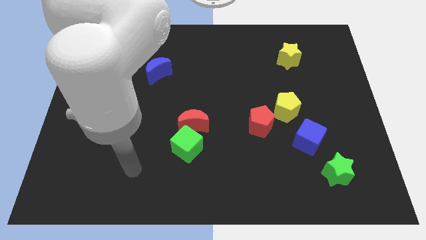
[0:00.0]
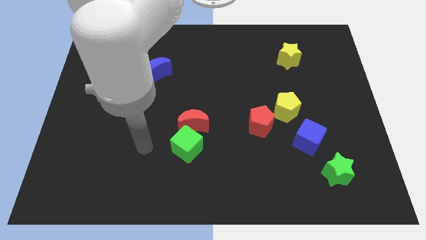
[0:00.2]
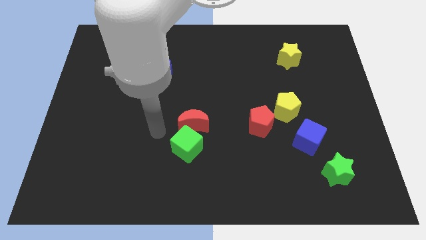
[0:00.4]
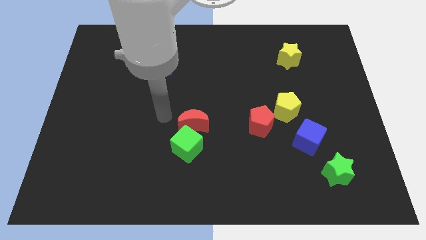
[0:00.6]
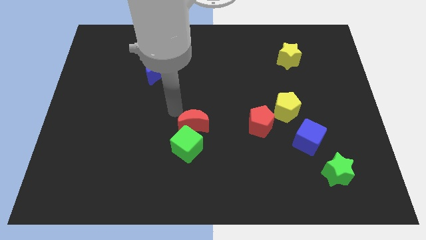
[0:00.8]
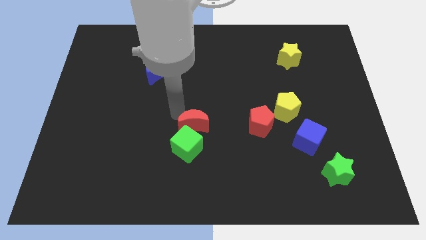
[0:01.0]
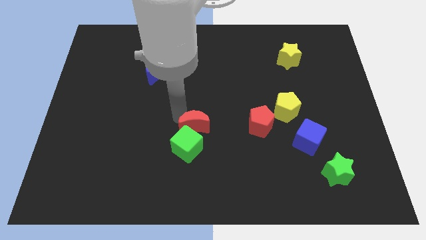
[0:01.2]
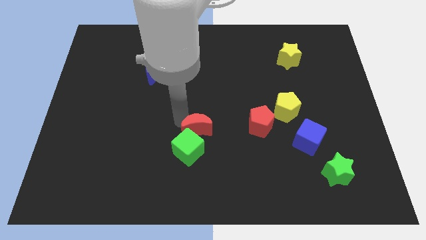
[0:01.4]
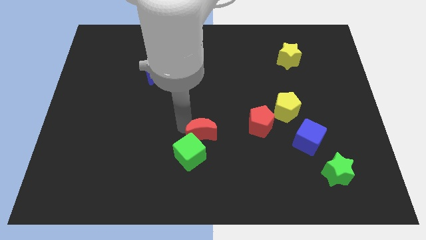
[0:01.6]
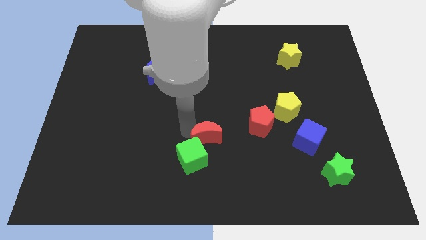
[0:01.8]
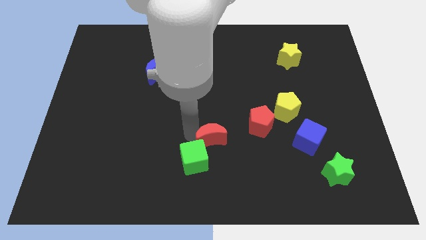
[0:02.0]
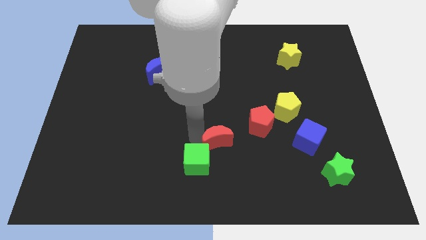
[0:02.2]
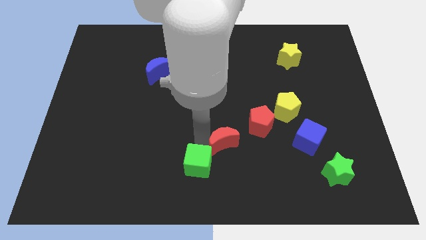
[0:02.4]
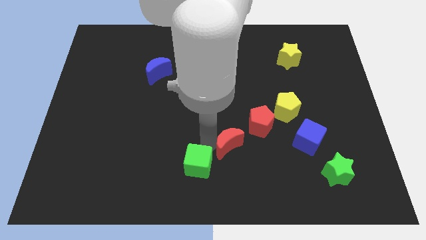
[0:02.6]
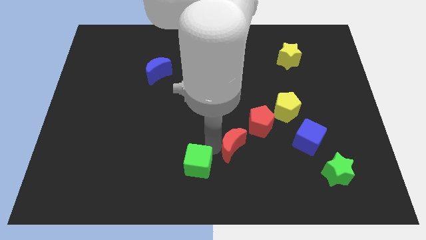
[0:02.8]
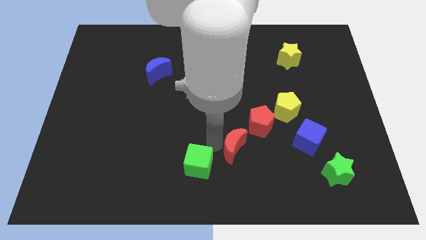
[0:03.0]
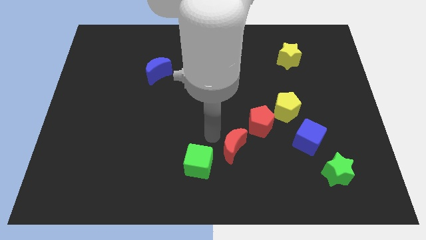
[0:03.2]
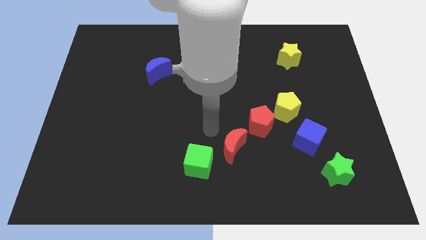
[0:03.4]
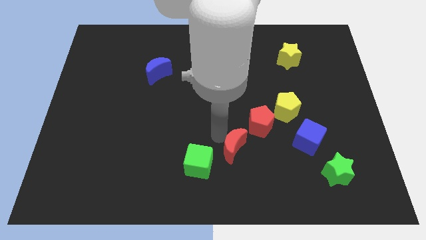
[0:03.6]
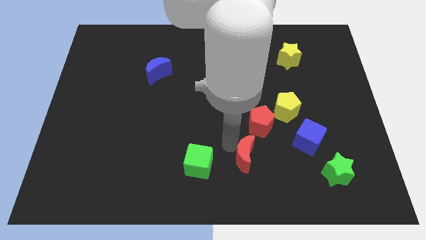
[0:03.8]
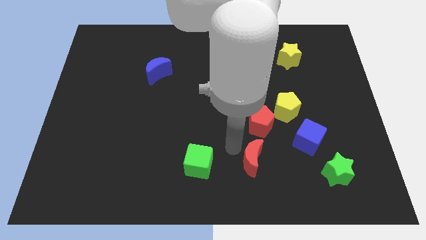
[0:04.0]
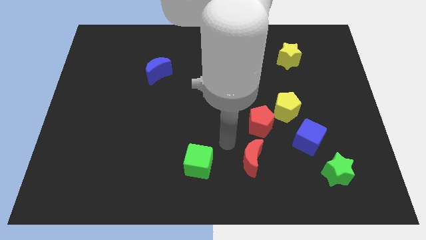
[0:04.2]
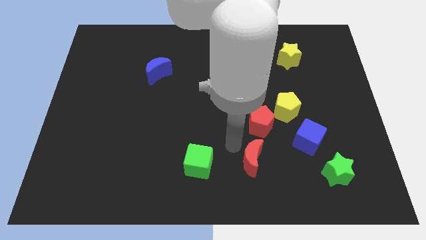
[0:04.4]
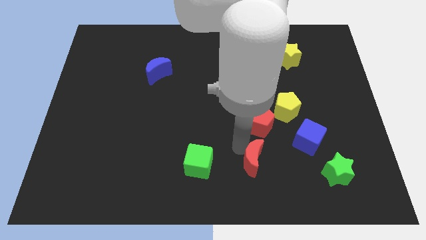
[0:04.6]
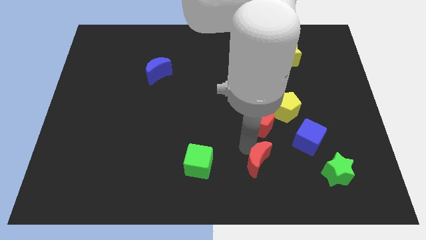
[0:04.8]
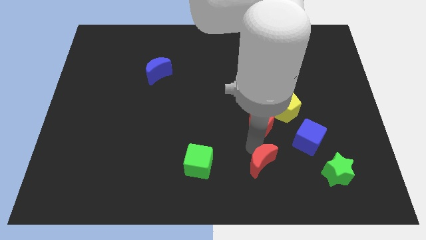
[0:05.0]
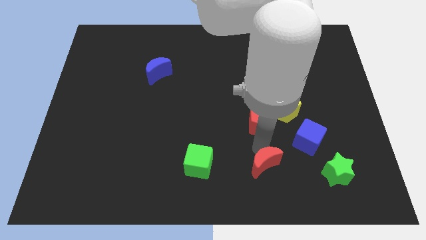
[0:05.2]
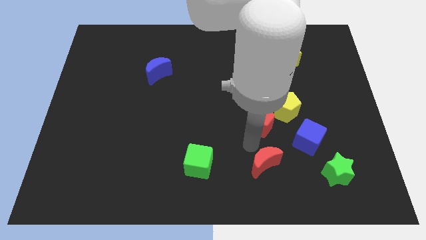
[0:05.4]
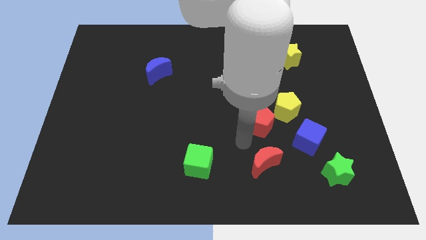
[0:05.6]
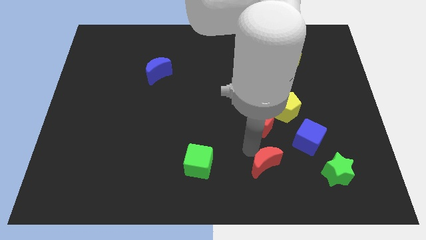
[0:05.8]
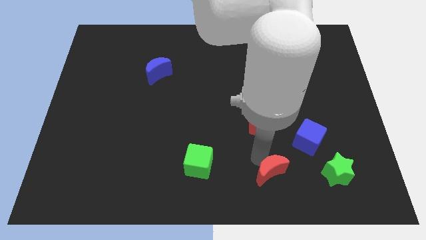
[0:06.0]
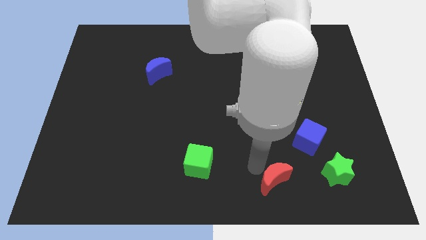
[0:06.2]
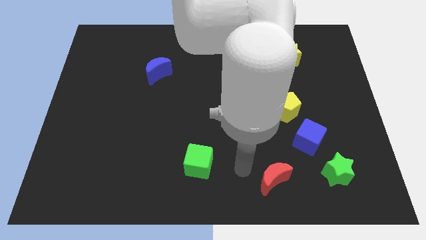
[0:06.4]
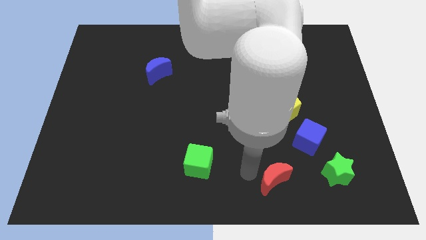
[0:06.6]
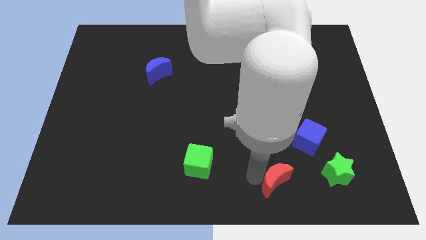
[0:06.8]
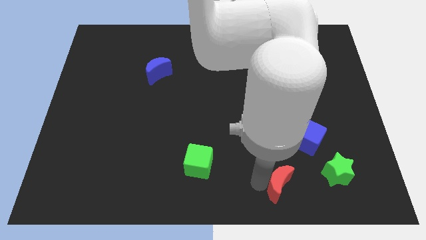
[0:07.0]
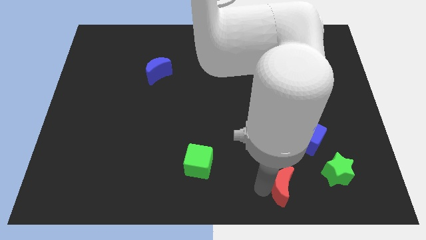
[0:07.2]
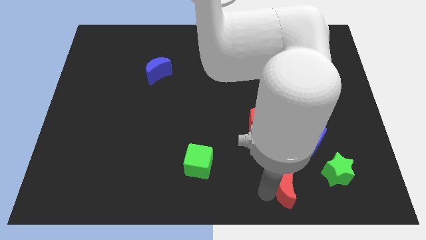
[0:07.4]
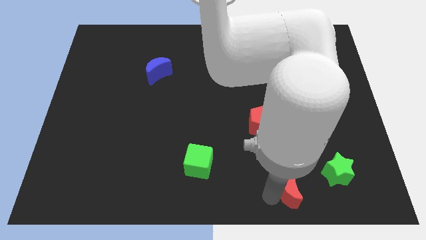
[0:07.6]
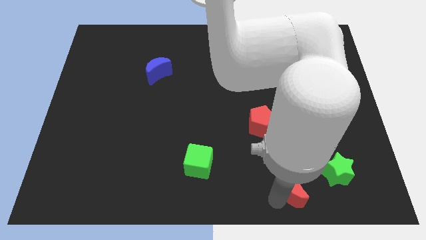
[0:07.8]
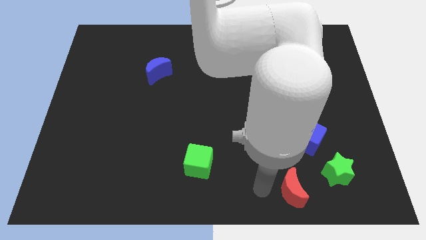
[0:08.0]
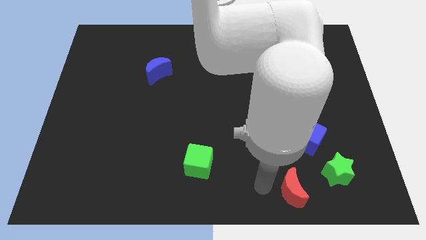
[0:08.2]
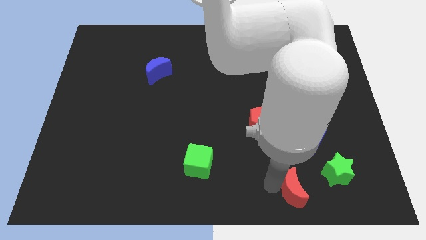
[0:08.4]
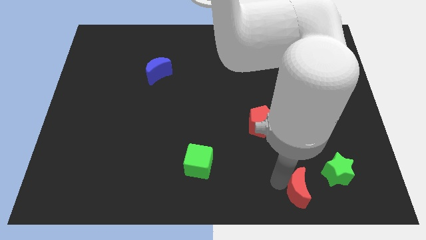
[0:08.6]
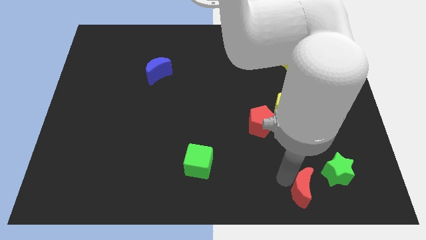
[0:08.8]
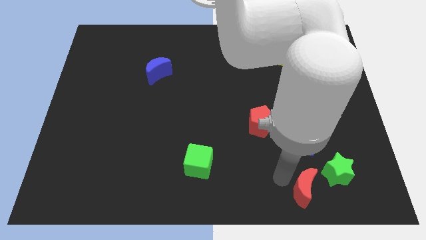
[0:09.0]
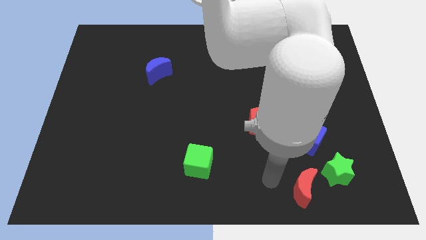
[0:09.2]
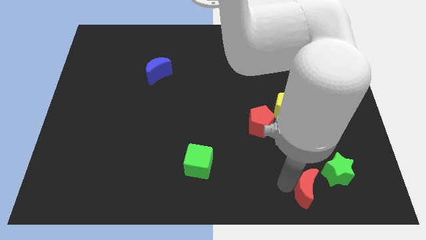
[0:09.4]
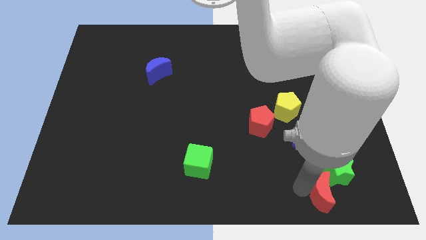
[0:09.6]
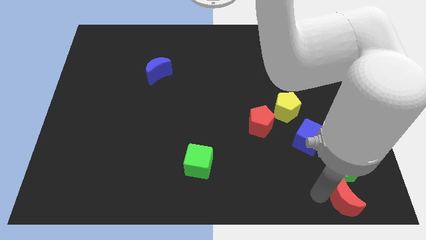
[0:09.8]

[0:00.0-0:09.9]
push the red moon to the bottom right

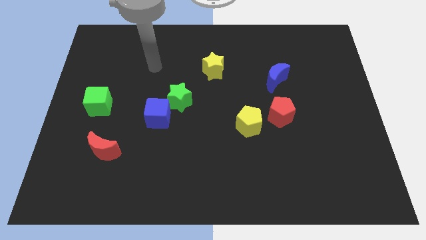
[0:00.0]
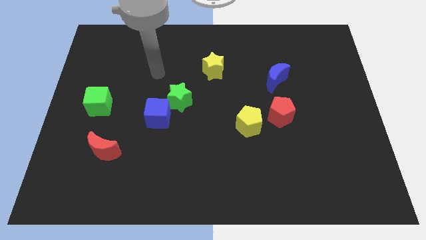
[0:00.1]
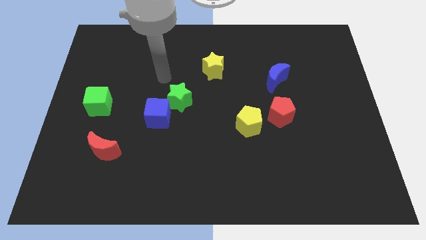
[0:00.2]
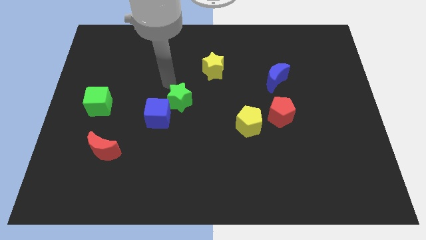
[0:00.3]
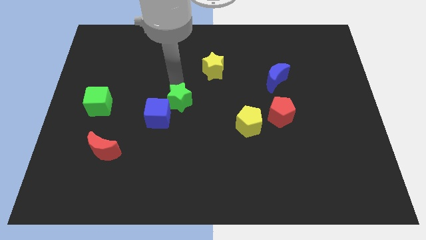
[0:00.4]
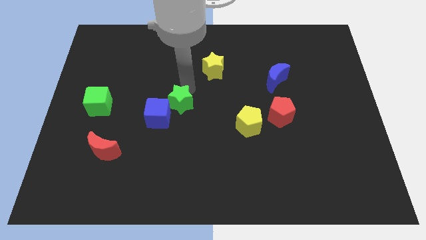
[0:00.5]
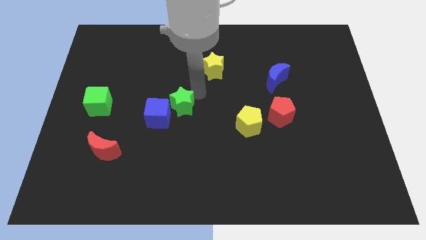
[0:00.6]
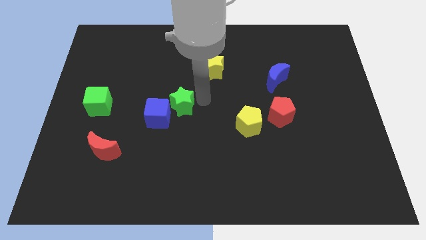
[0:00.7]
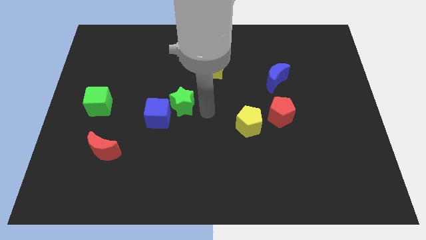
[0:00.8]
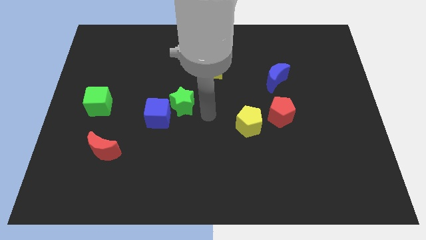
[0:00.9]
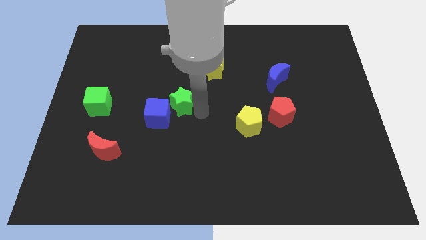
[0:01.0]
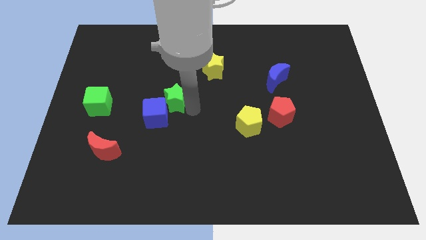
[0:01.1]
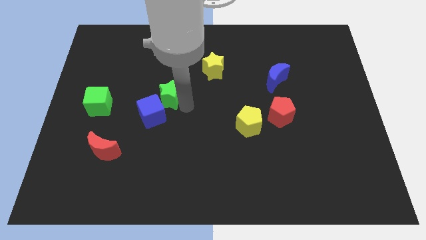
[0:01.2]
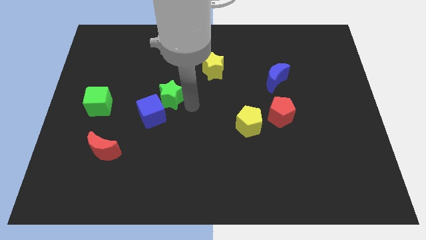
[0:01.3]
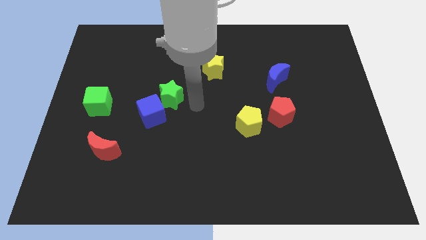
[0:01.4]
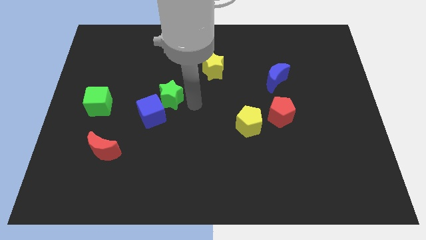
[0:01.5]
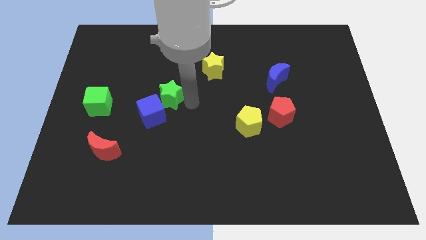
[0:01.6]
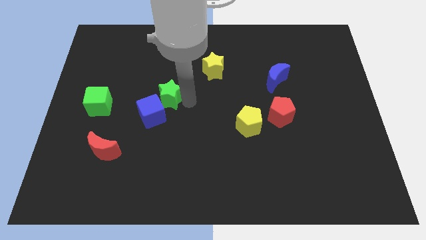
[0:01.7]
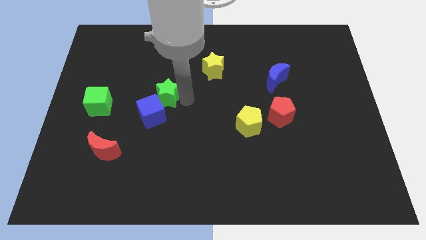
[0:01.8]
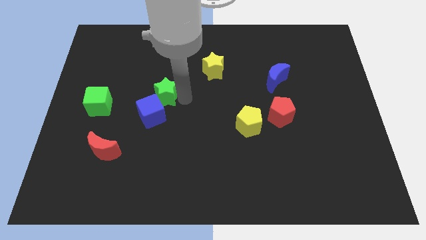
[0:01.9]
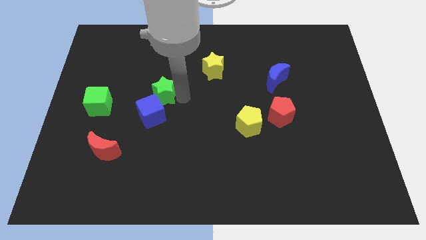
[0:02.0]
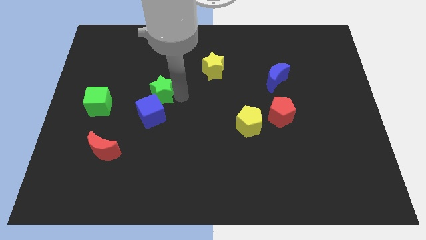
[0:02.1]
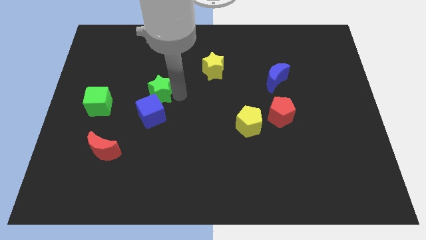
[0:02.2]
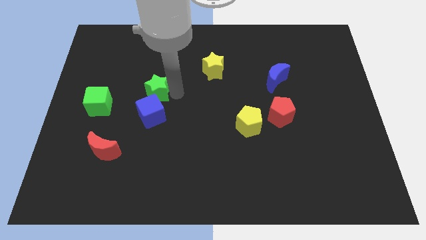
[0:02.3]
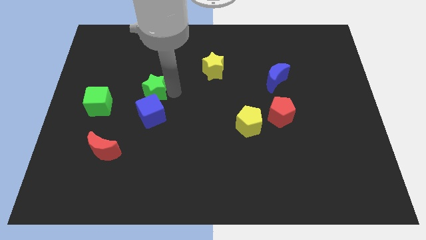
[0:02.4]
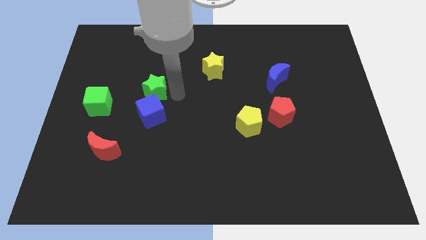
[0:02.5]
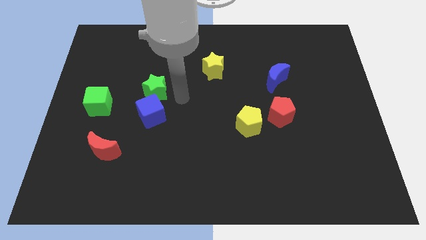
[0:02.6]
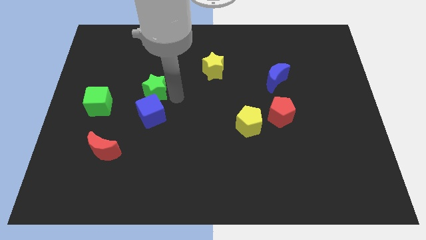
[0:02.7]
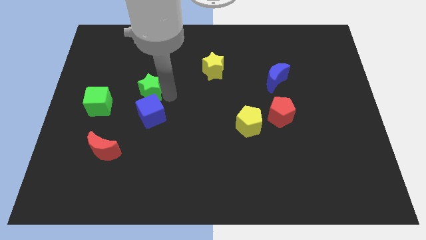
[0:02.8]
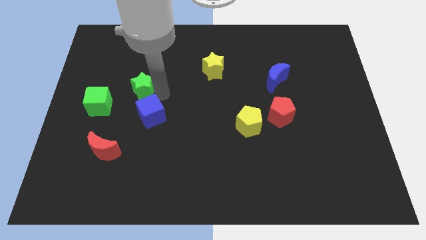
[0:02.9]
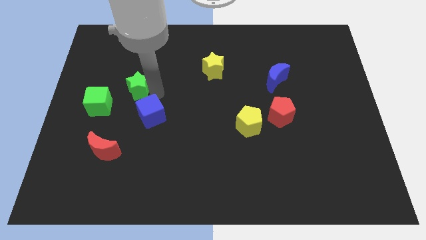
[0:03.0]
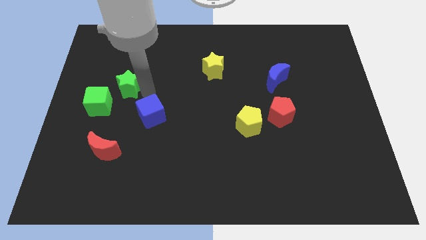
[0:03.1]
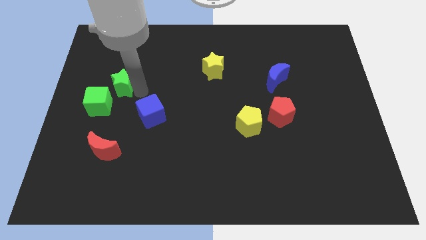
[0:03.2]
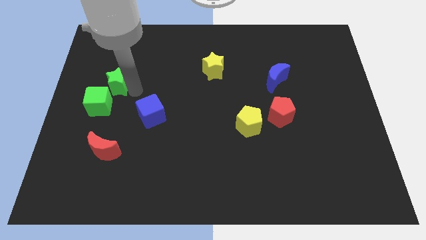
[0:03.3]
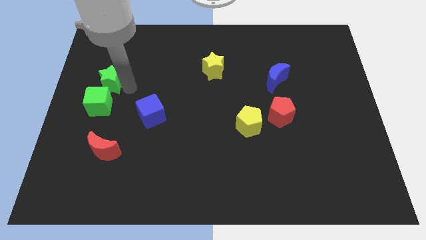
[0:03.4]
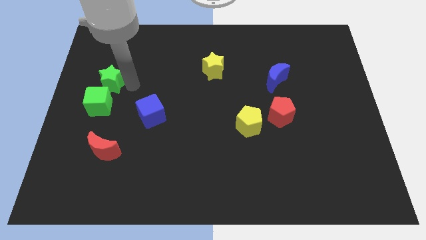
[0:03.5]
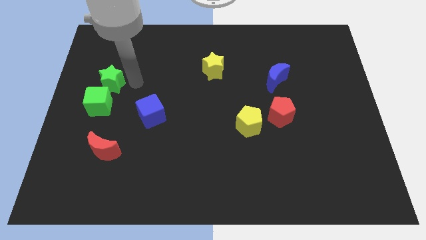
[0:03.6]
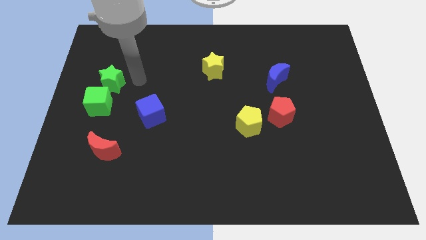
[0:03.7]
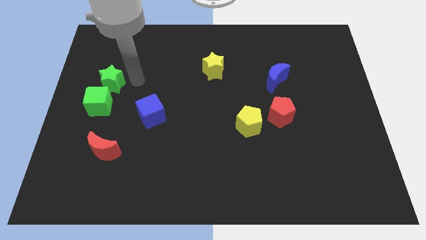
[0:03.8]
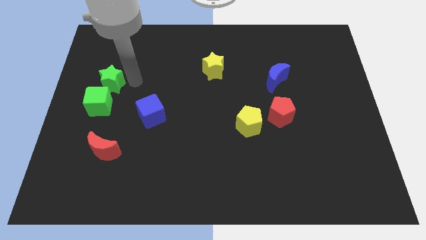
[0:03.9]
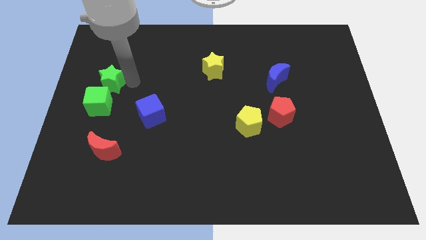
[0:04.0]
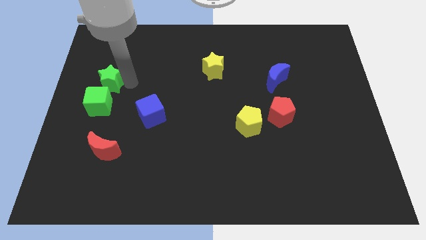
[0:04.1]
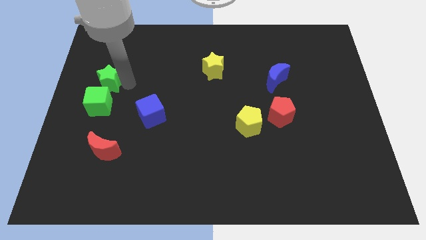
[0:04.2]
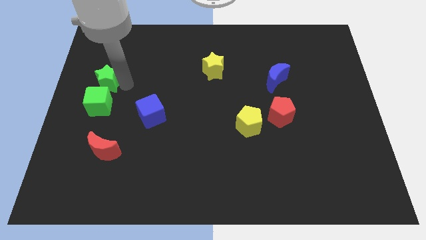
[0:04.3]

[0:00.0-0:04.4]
move the green star to the left side
